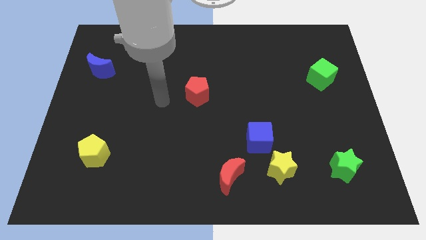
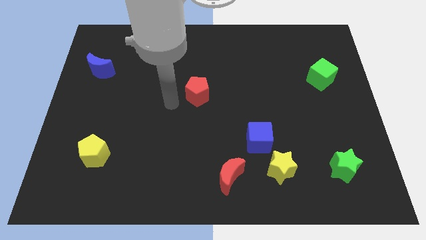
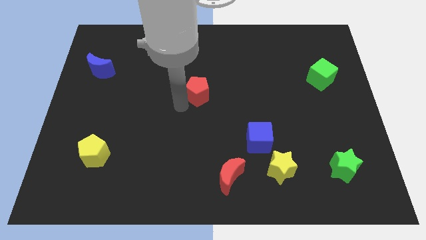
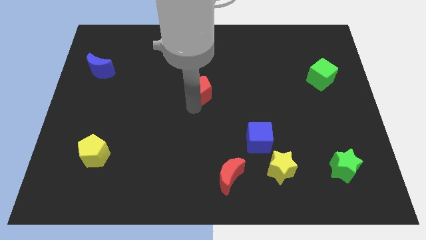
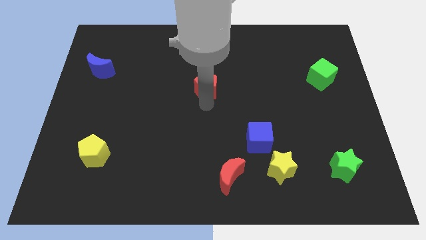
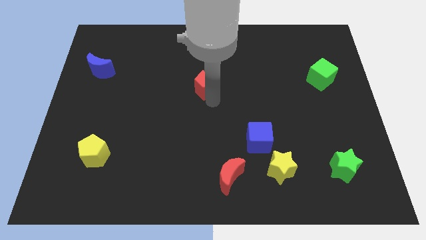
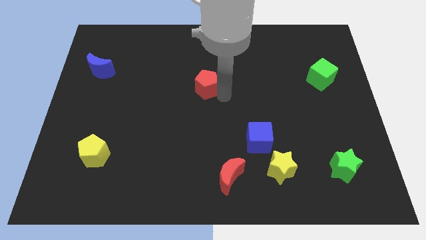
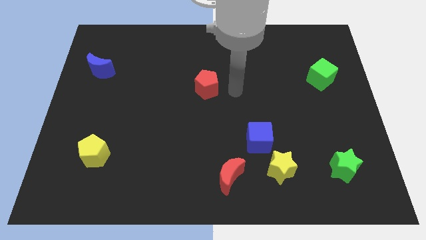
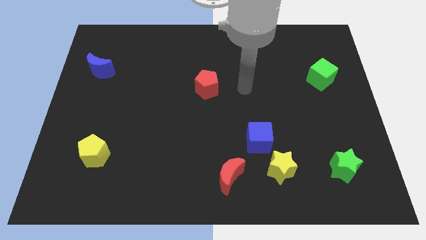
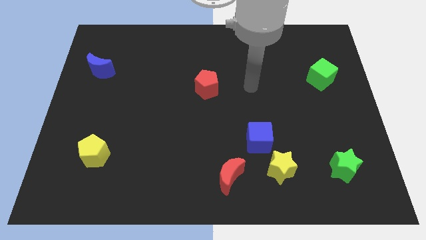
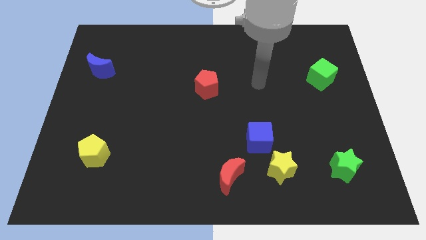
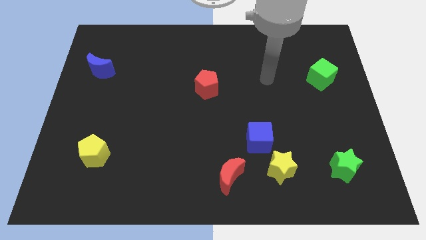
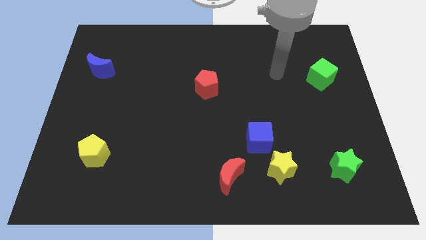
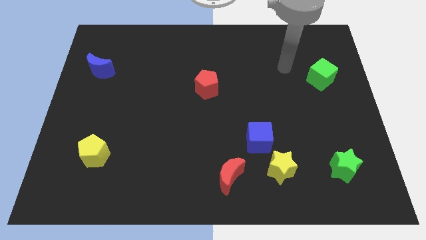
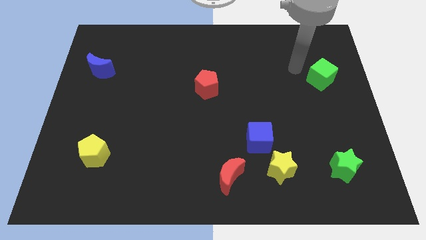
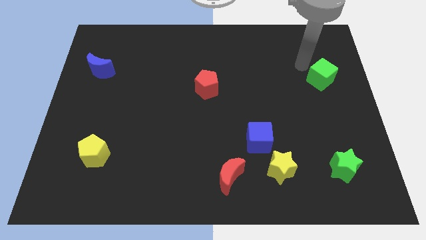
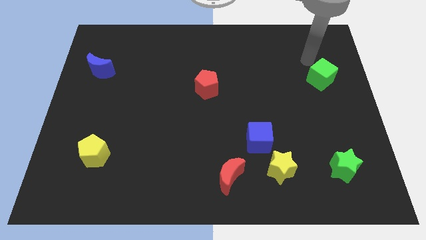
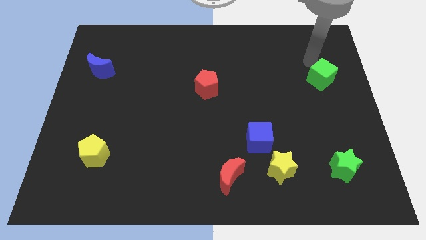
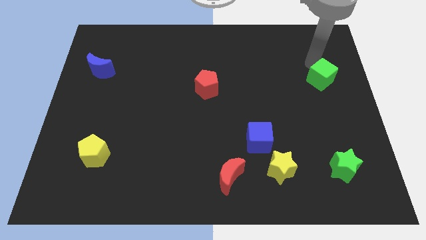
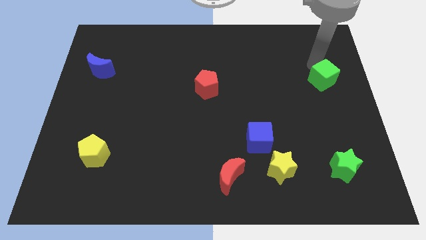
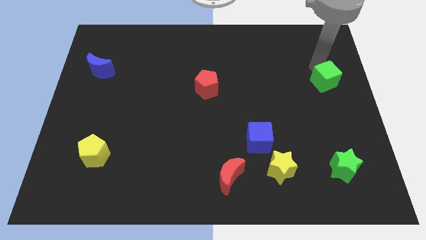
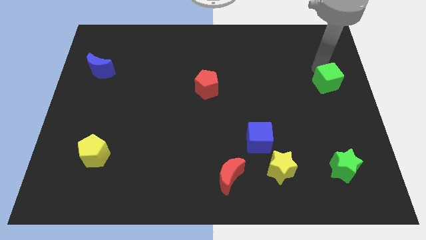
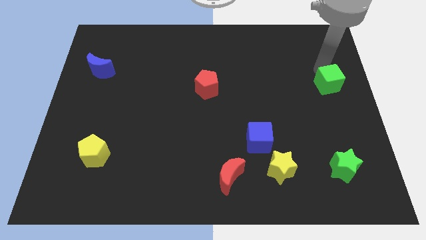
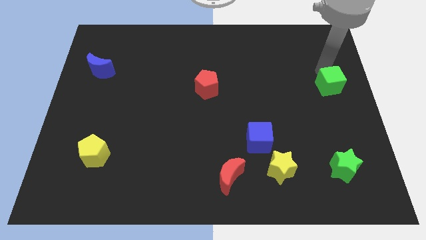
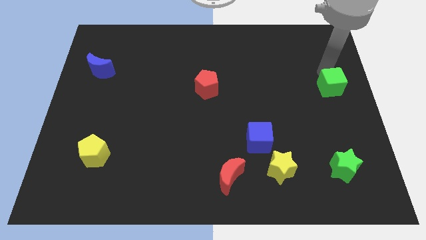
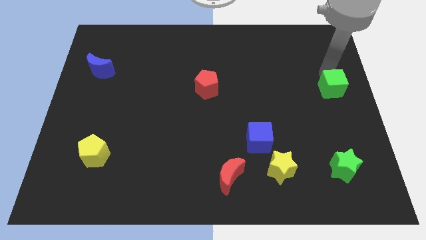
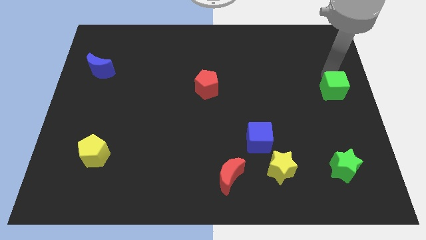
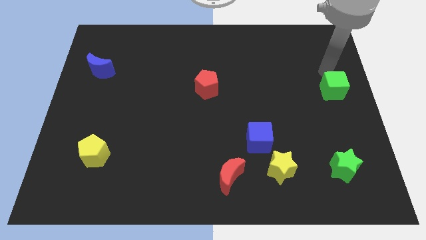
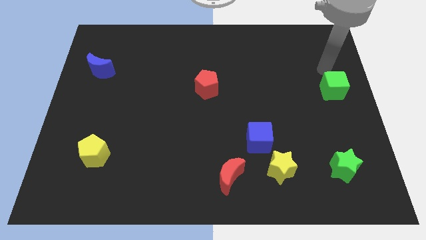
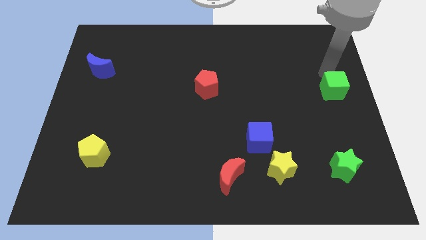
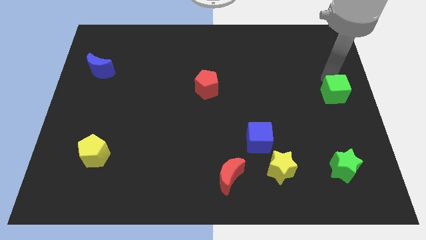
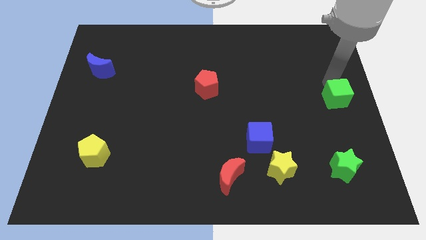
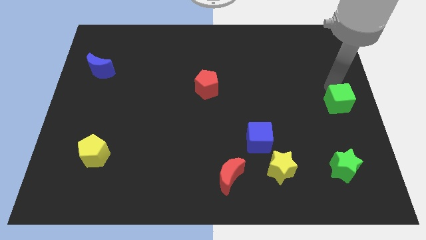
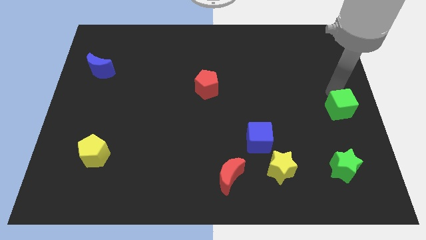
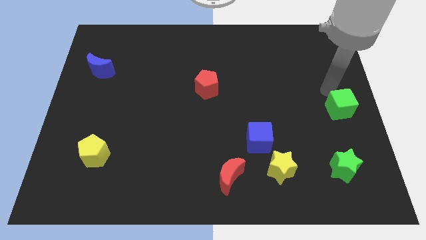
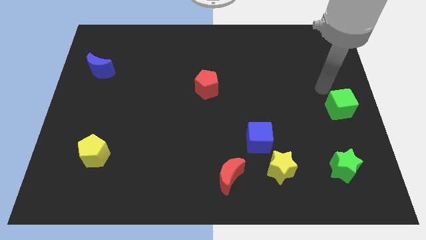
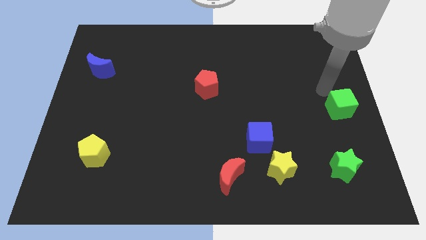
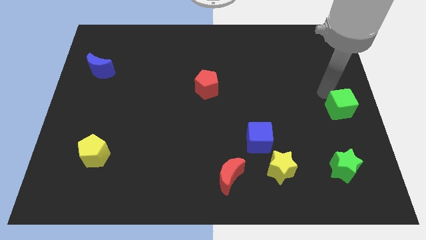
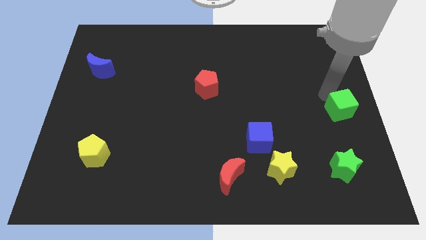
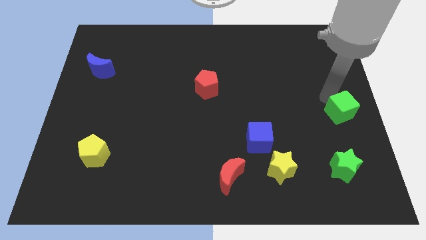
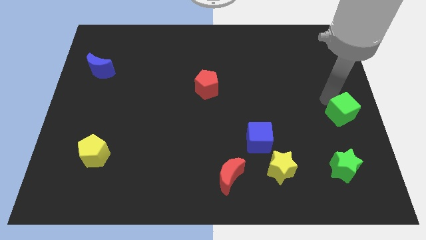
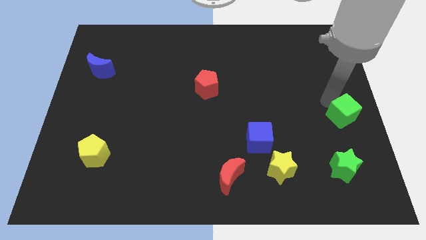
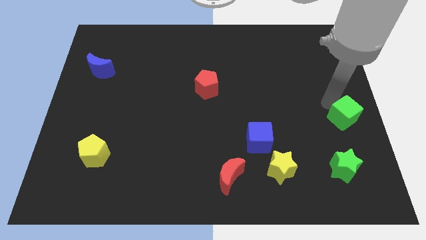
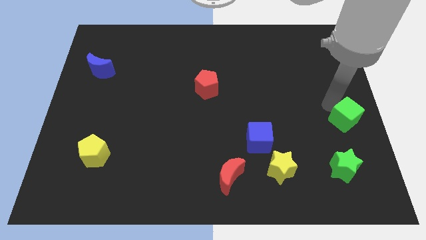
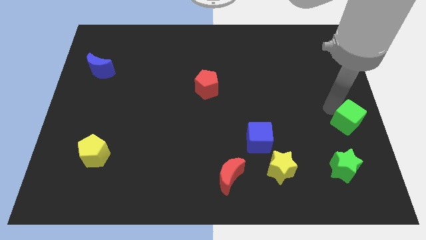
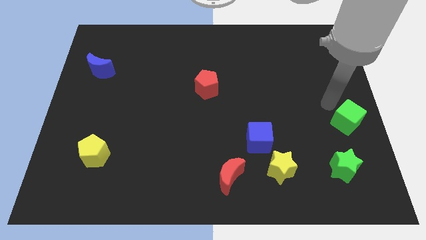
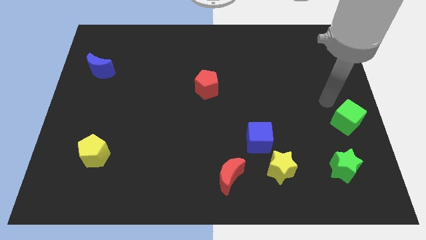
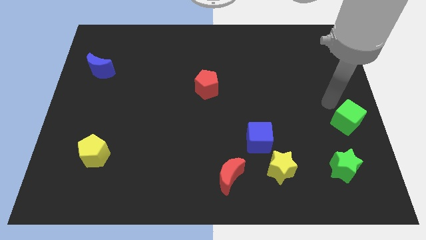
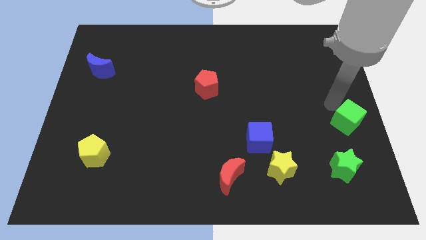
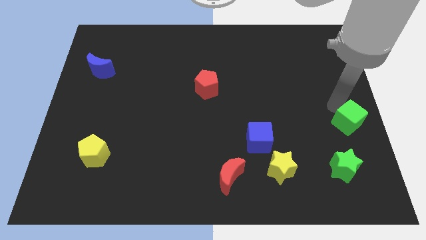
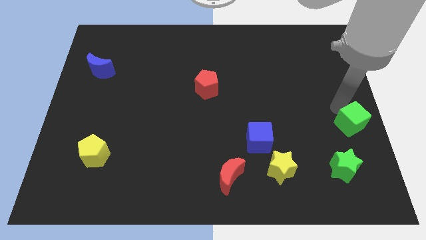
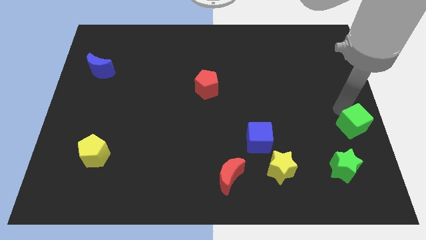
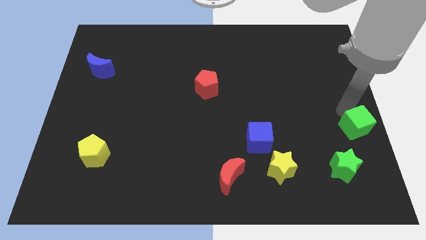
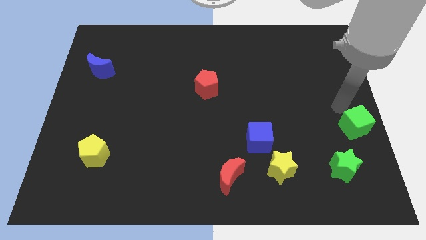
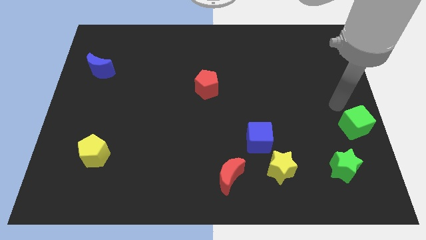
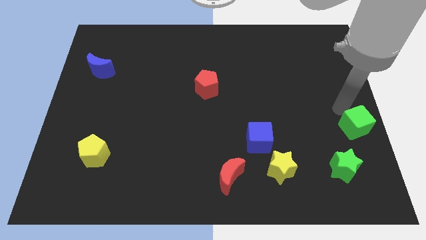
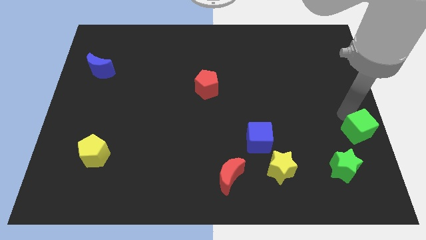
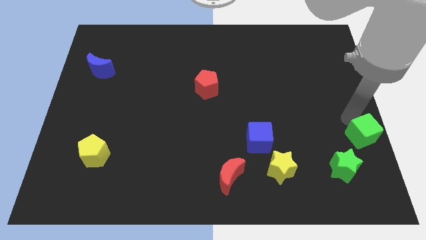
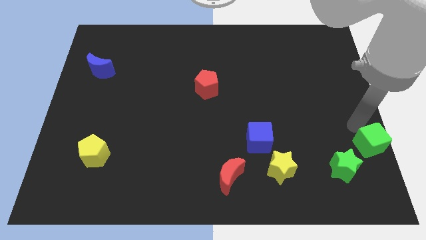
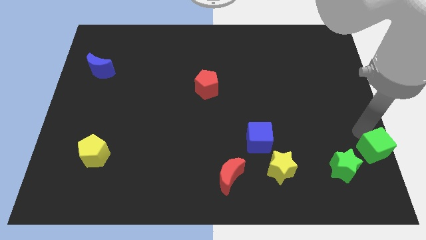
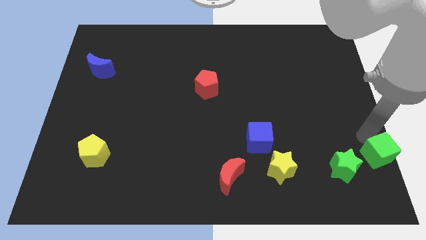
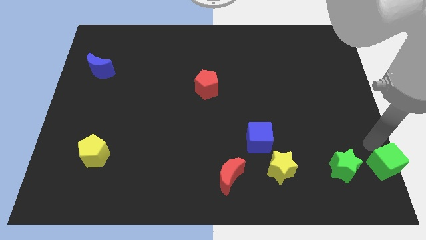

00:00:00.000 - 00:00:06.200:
slide the green cube to the lower right corner

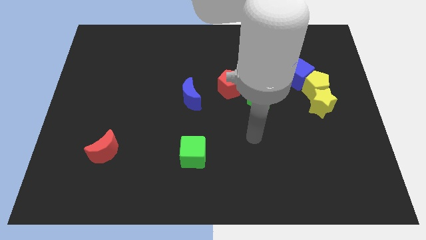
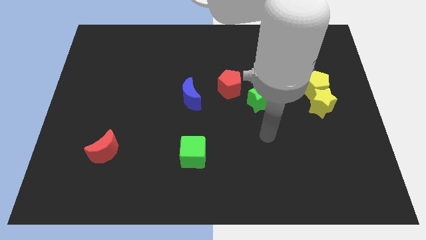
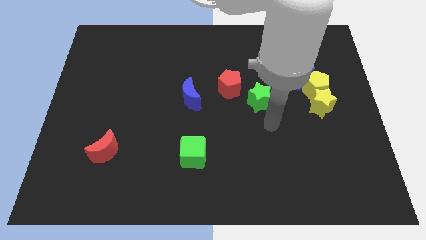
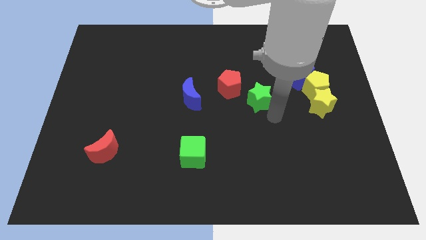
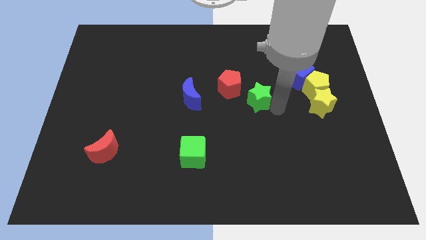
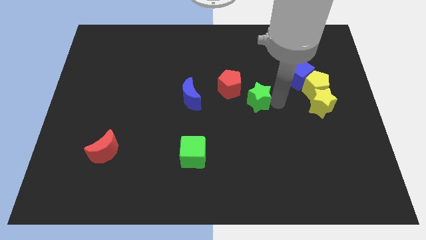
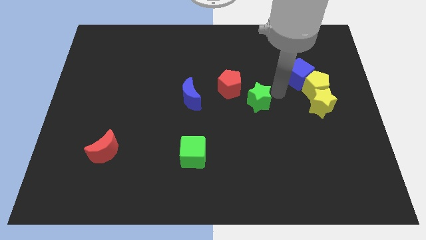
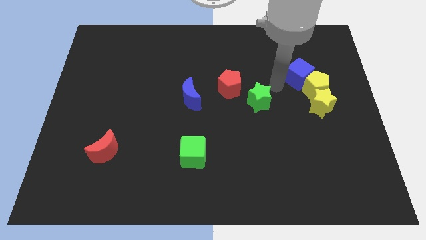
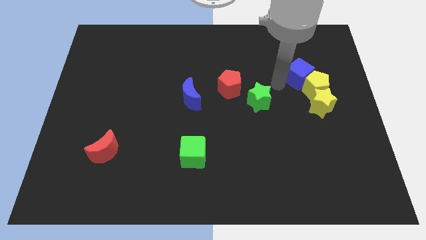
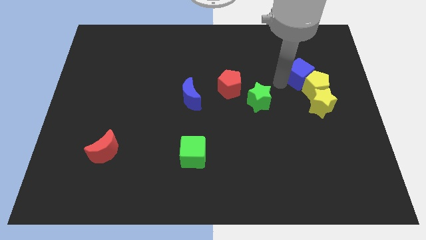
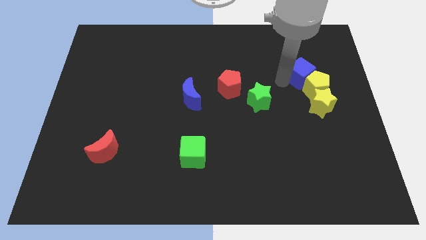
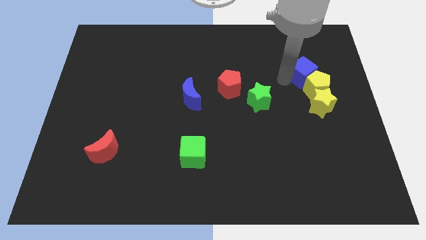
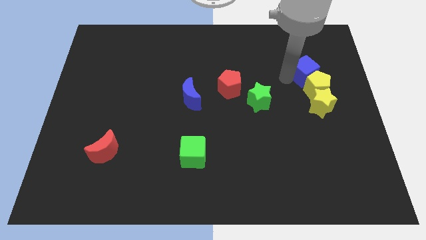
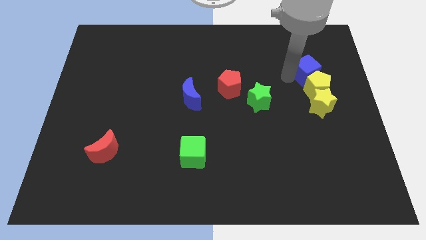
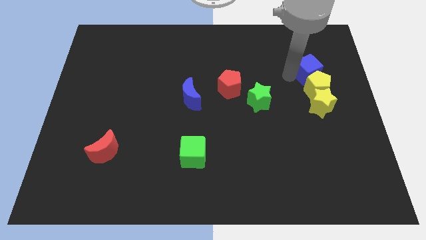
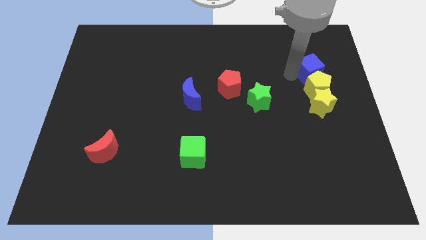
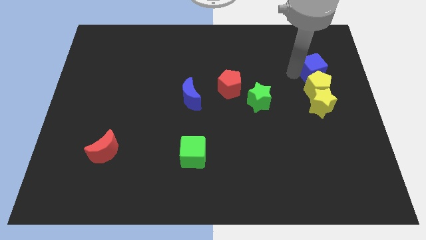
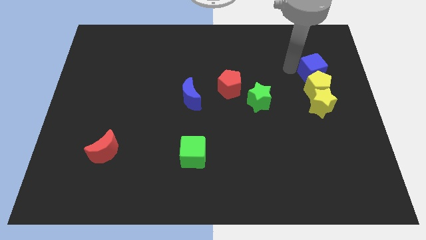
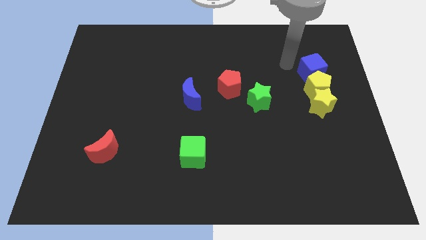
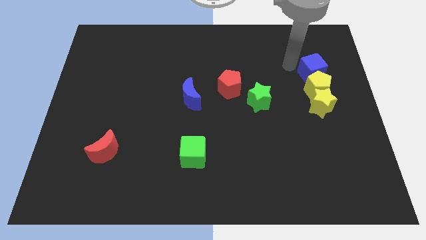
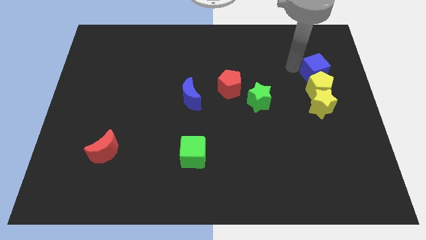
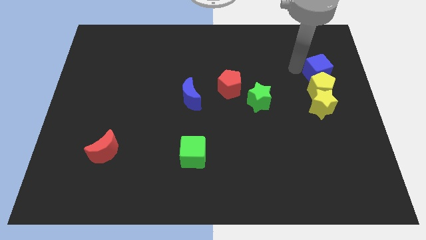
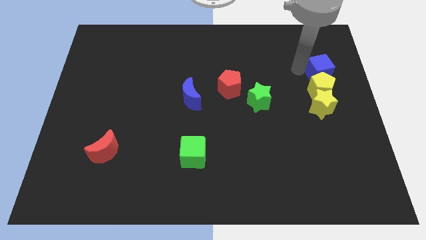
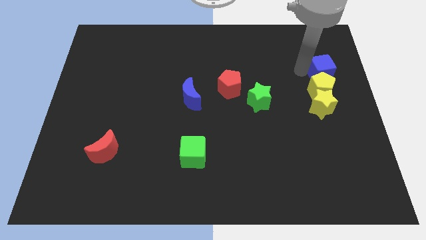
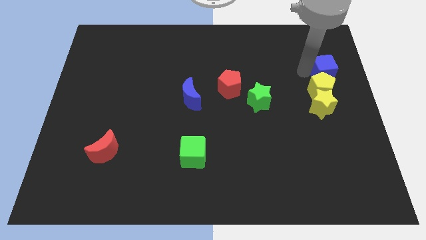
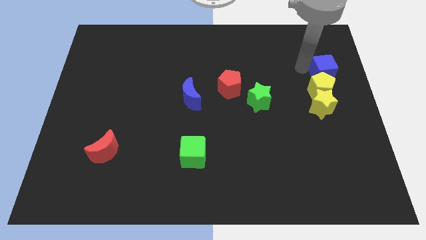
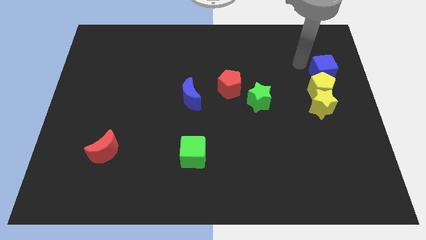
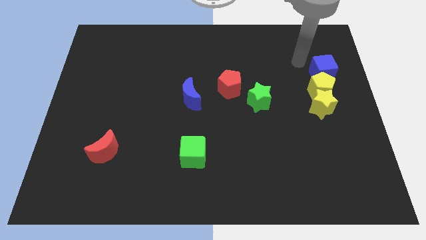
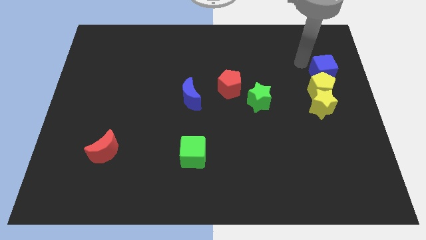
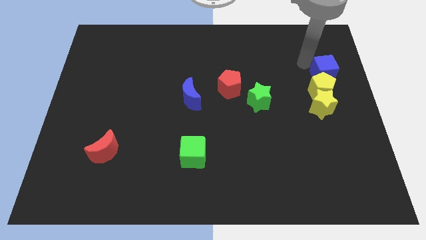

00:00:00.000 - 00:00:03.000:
move the blue cube to the right side of the board
